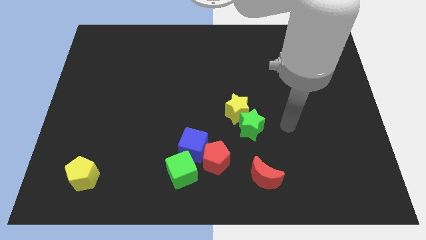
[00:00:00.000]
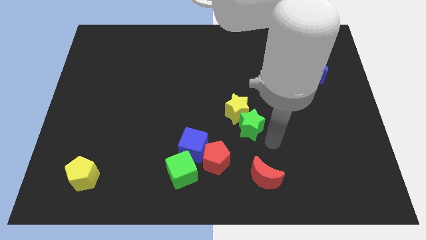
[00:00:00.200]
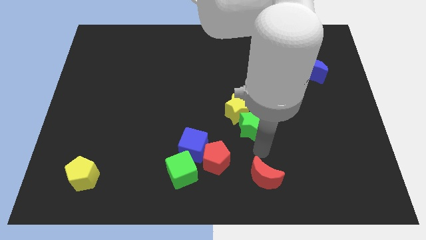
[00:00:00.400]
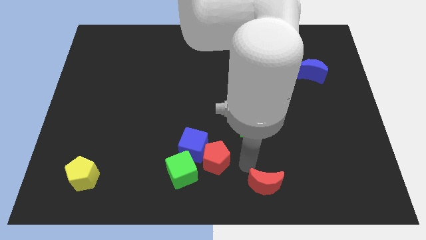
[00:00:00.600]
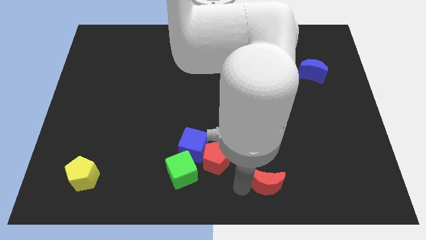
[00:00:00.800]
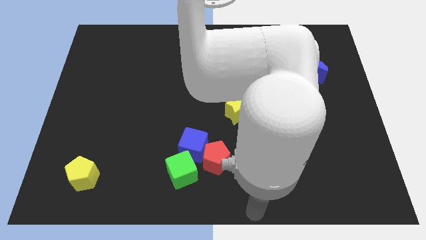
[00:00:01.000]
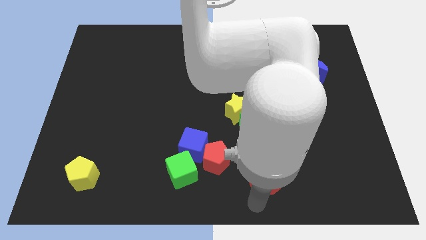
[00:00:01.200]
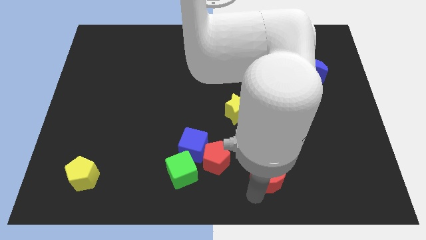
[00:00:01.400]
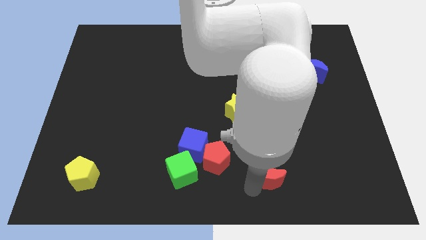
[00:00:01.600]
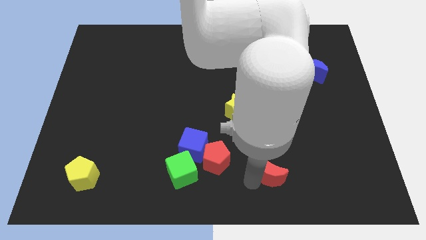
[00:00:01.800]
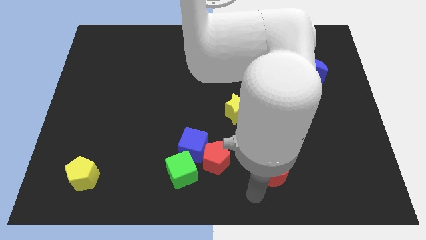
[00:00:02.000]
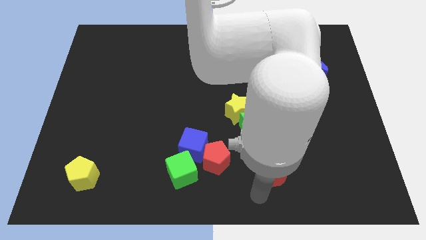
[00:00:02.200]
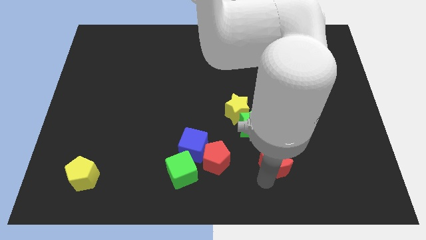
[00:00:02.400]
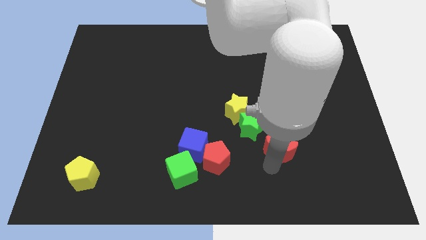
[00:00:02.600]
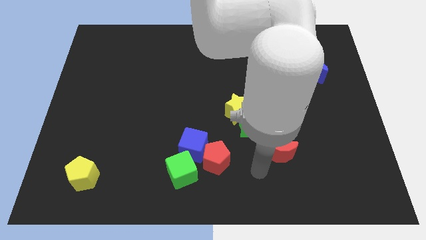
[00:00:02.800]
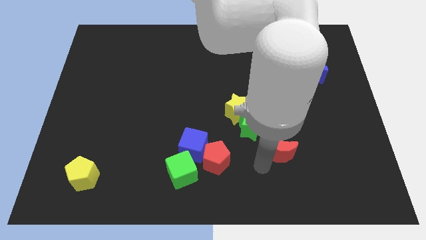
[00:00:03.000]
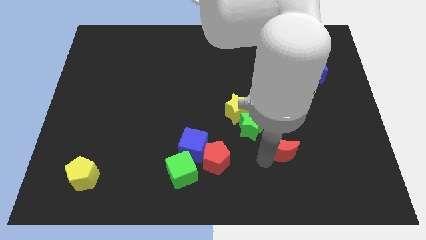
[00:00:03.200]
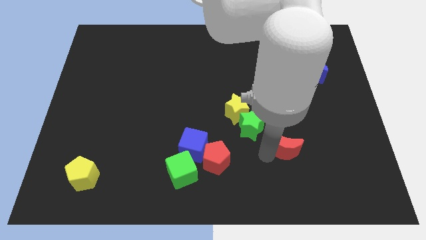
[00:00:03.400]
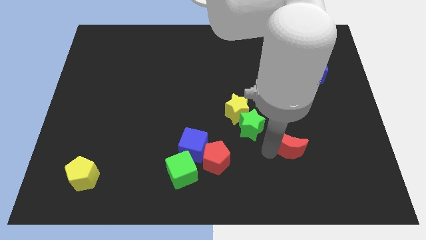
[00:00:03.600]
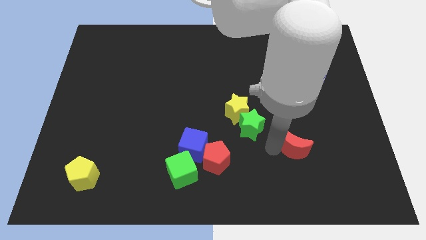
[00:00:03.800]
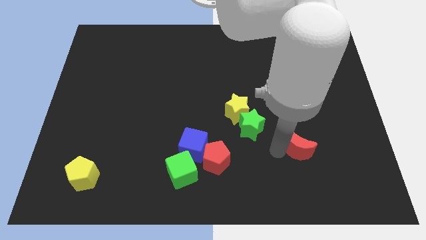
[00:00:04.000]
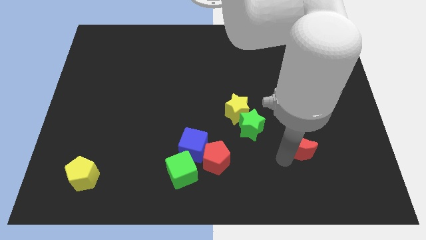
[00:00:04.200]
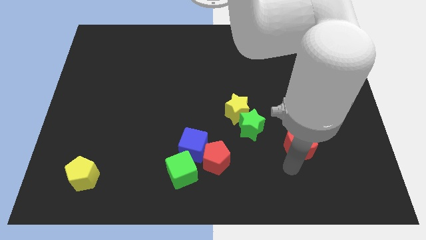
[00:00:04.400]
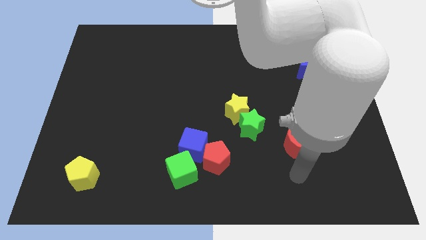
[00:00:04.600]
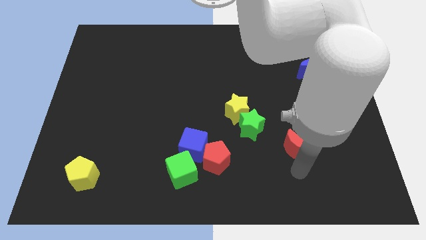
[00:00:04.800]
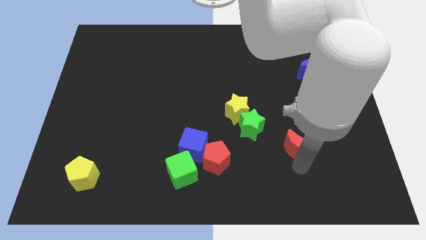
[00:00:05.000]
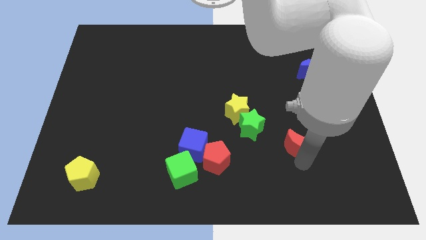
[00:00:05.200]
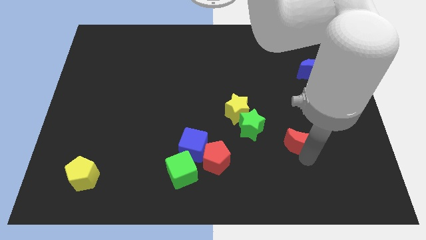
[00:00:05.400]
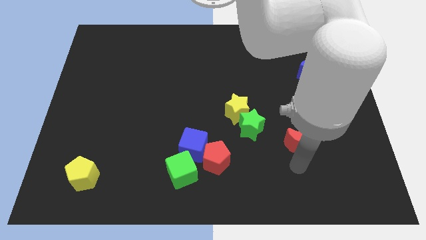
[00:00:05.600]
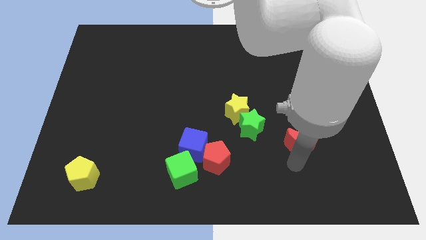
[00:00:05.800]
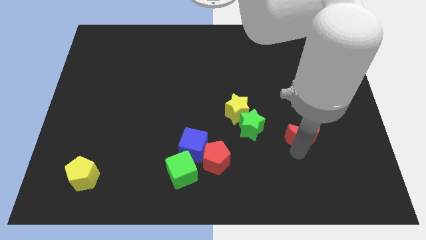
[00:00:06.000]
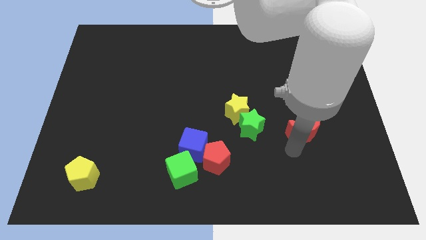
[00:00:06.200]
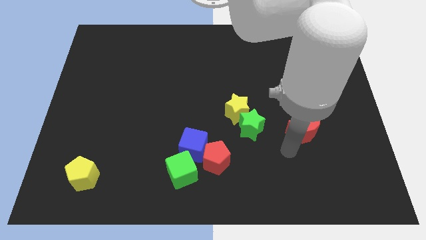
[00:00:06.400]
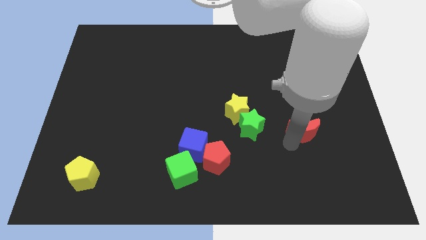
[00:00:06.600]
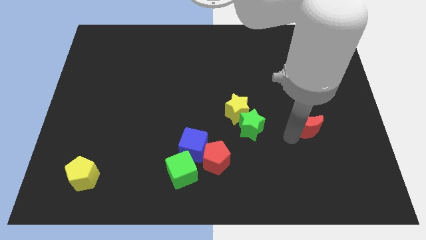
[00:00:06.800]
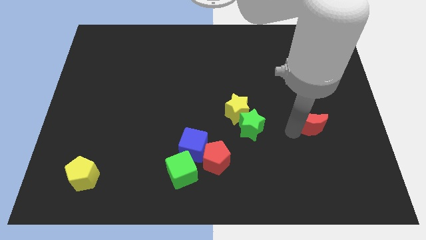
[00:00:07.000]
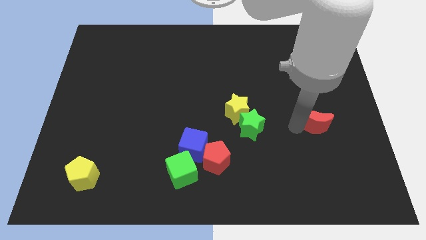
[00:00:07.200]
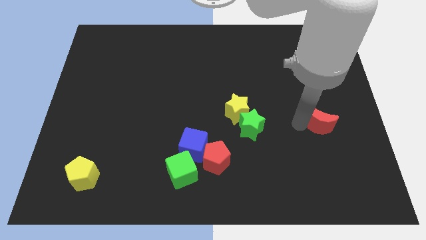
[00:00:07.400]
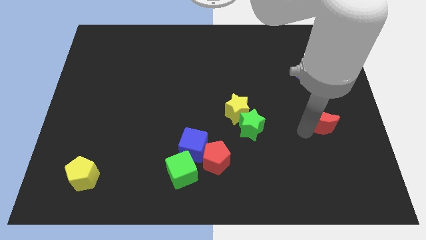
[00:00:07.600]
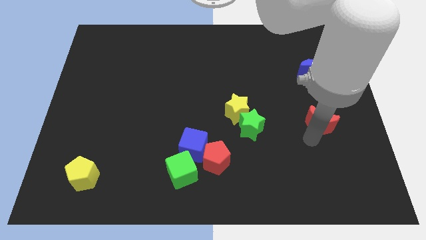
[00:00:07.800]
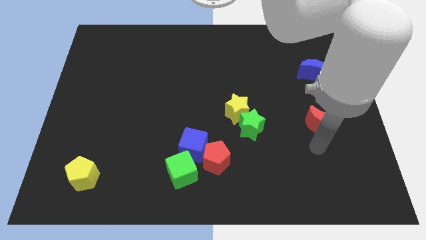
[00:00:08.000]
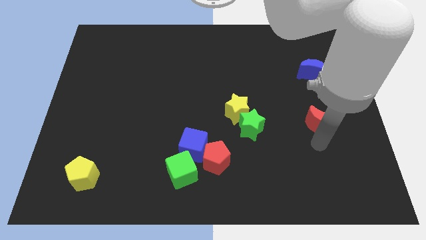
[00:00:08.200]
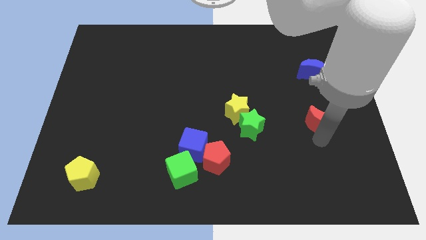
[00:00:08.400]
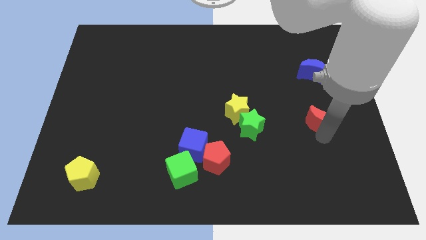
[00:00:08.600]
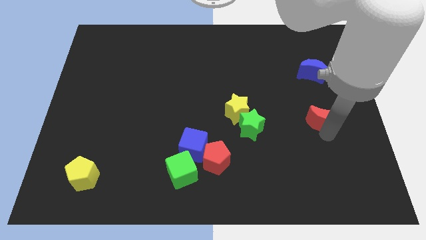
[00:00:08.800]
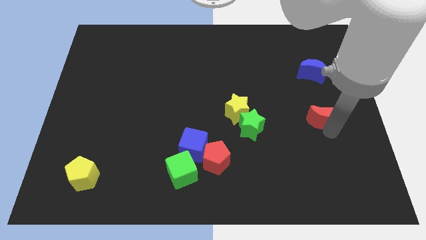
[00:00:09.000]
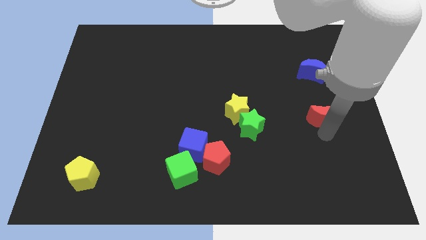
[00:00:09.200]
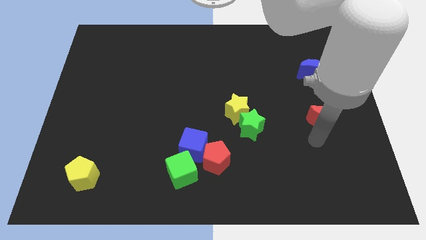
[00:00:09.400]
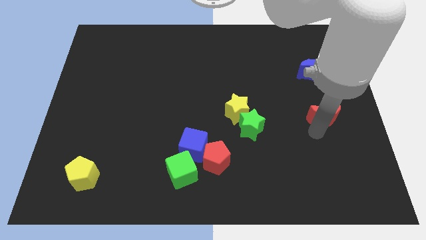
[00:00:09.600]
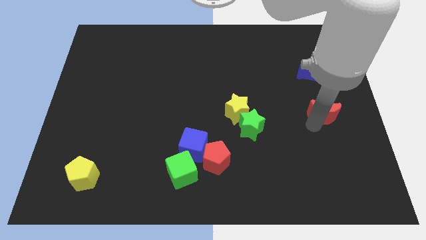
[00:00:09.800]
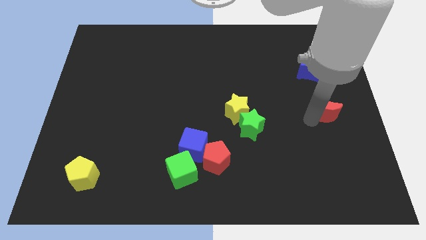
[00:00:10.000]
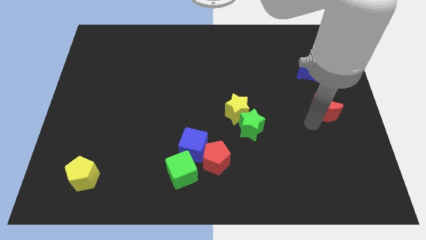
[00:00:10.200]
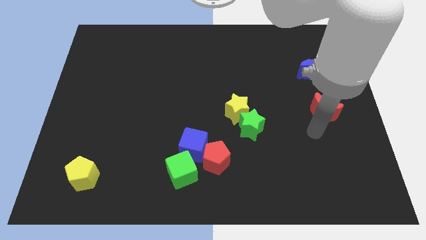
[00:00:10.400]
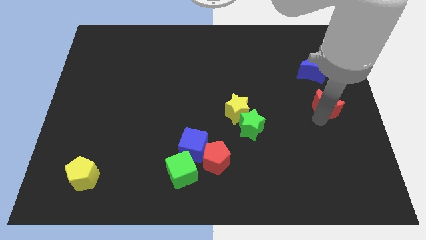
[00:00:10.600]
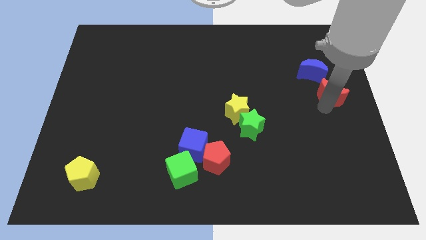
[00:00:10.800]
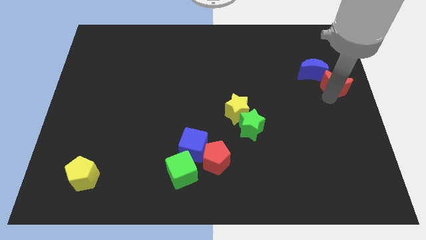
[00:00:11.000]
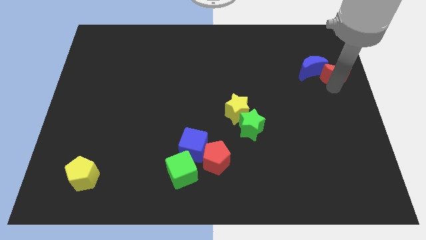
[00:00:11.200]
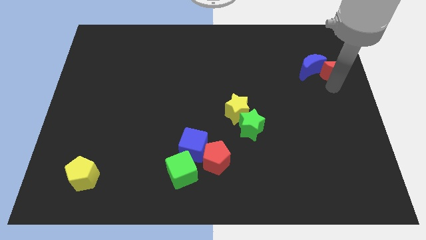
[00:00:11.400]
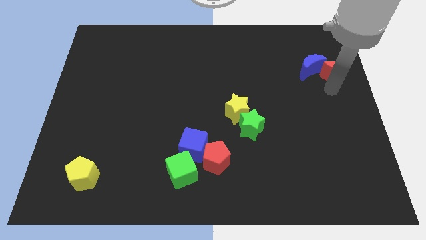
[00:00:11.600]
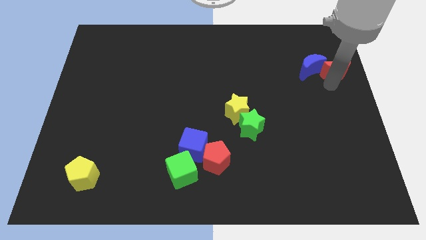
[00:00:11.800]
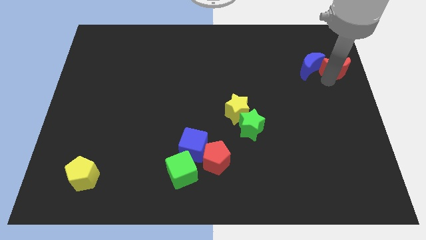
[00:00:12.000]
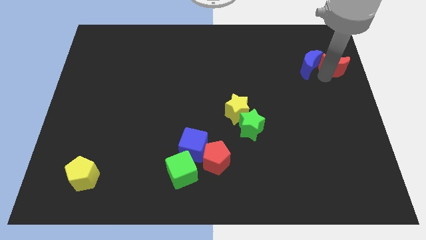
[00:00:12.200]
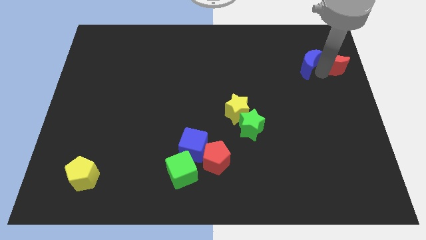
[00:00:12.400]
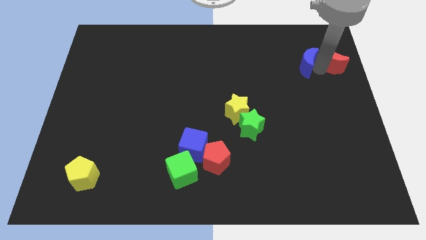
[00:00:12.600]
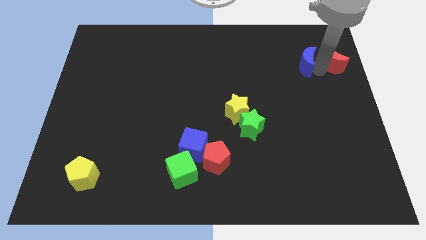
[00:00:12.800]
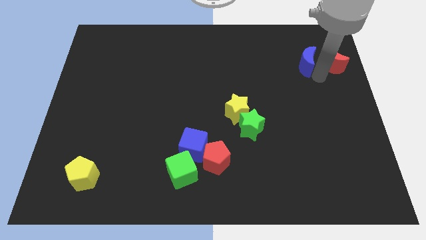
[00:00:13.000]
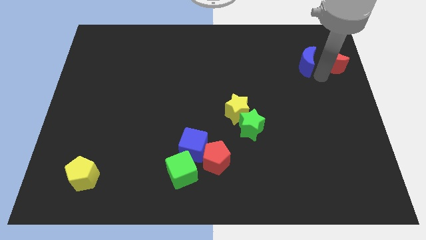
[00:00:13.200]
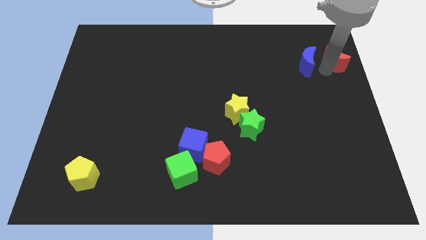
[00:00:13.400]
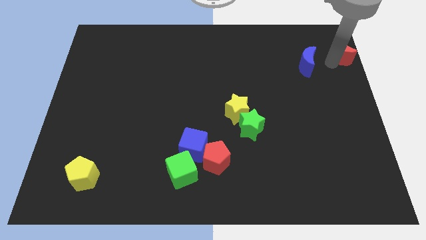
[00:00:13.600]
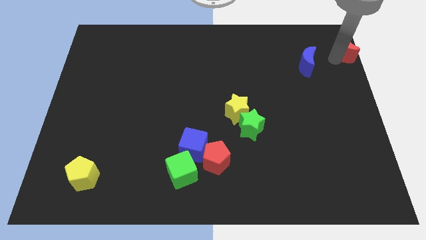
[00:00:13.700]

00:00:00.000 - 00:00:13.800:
slide the red moon to the upper right corner

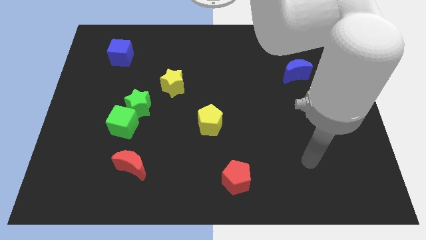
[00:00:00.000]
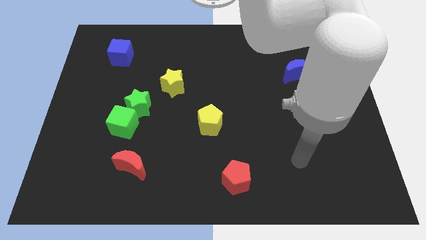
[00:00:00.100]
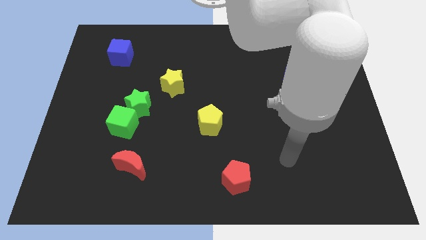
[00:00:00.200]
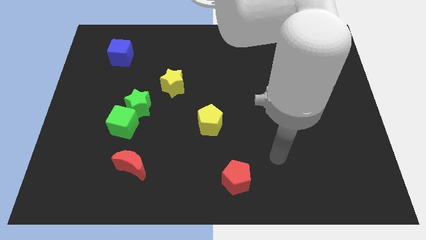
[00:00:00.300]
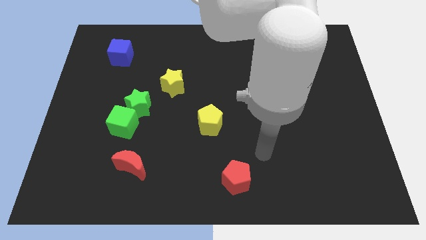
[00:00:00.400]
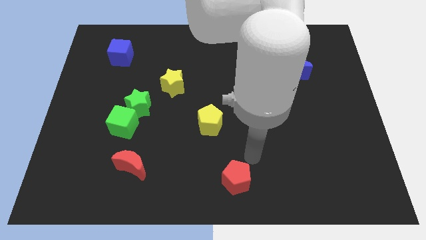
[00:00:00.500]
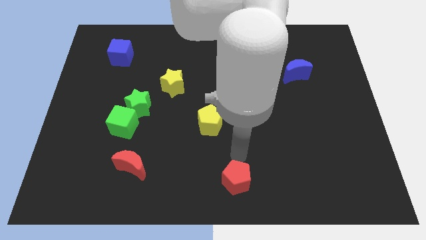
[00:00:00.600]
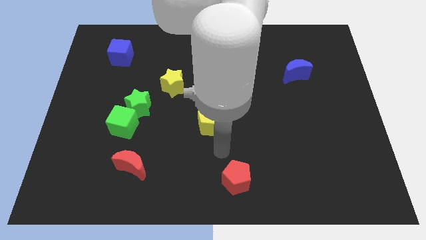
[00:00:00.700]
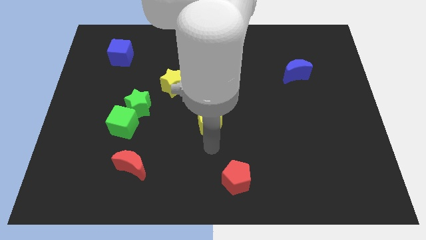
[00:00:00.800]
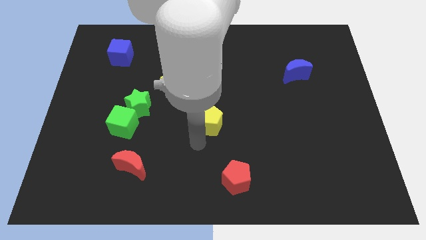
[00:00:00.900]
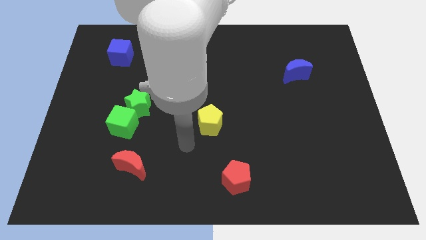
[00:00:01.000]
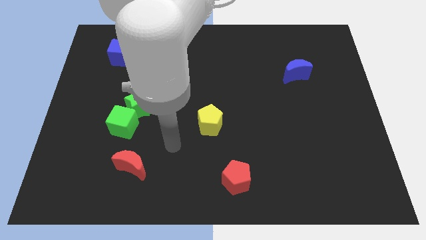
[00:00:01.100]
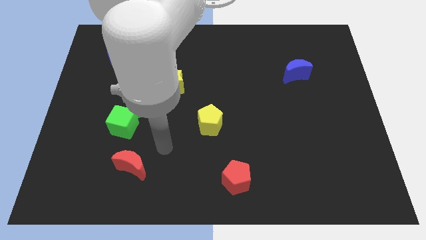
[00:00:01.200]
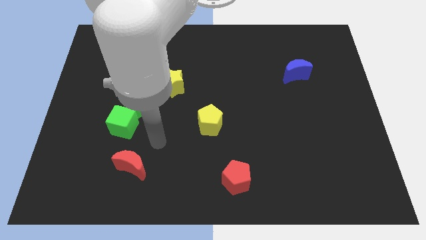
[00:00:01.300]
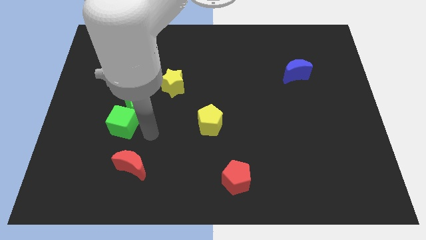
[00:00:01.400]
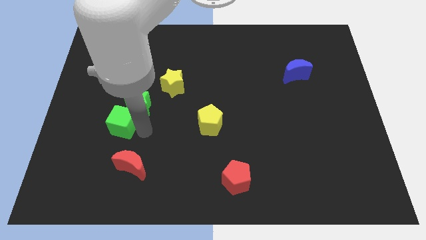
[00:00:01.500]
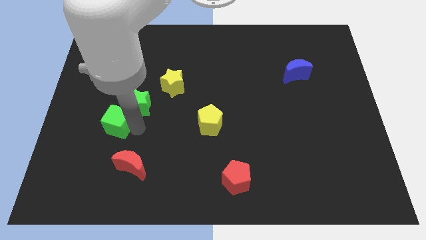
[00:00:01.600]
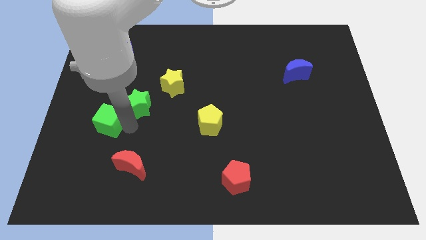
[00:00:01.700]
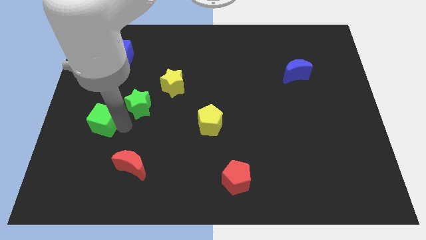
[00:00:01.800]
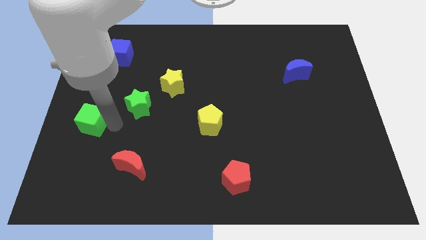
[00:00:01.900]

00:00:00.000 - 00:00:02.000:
put the green cube to the left side of the board
